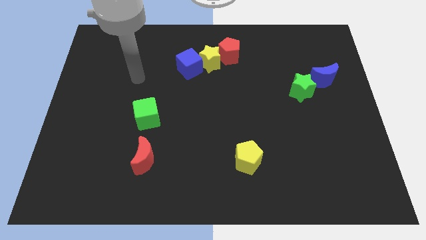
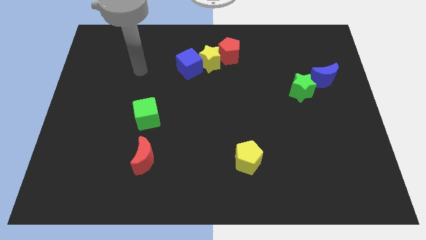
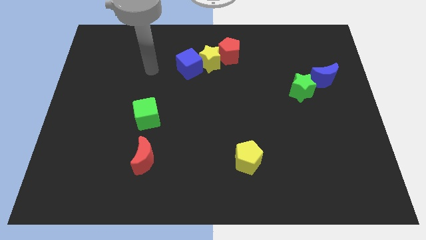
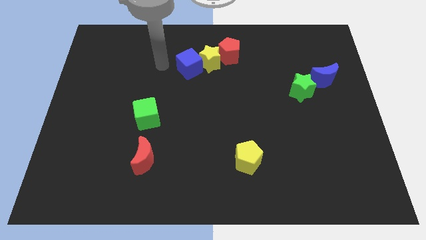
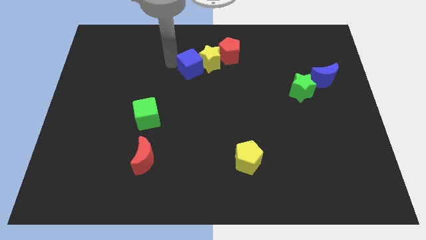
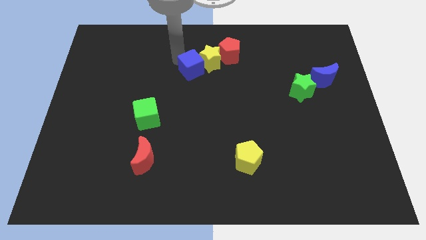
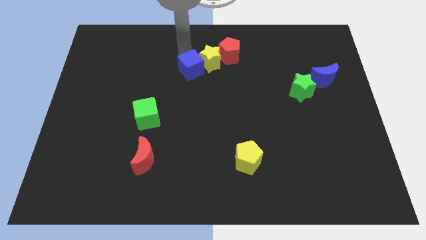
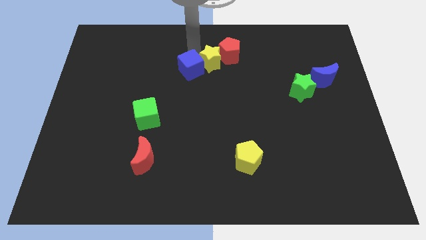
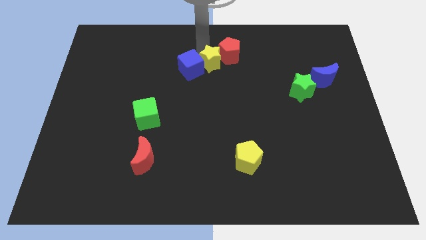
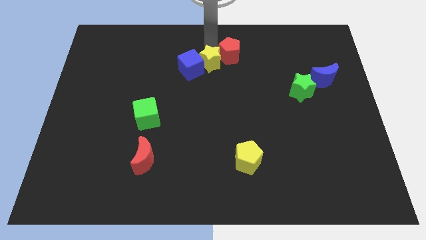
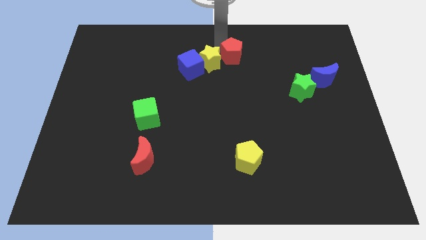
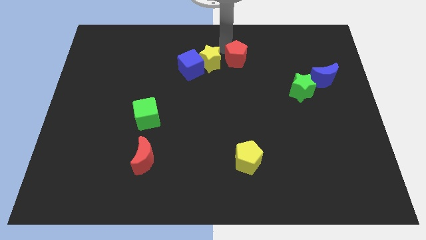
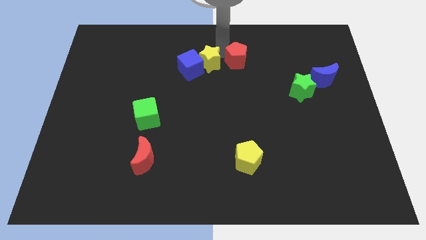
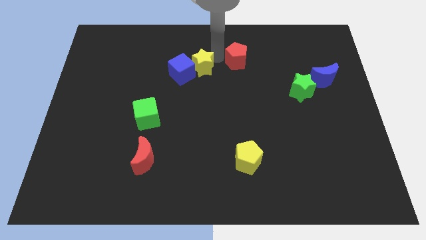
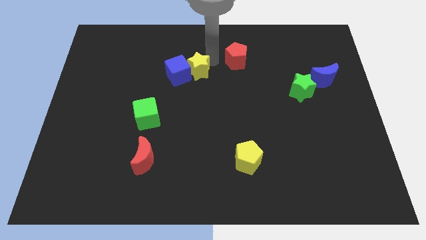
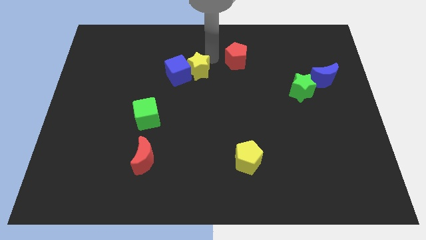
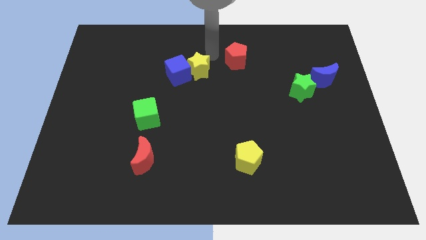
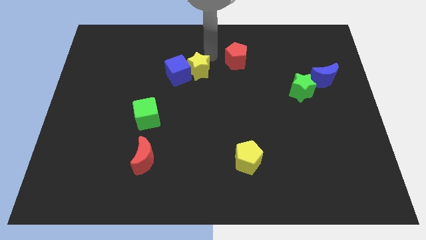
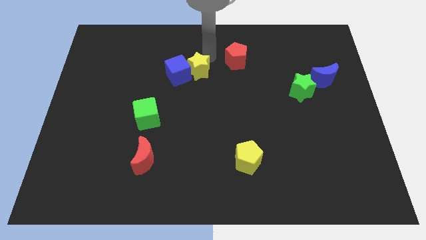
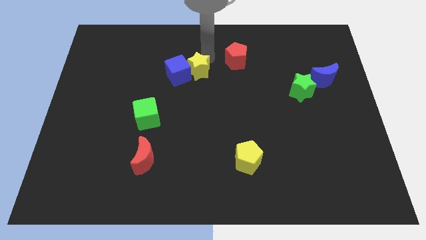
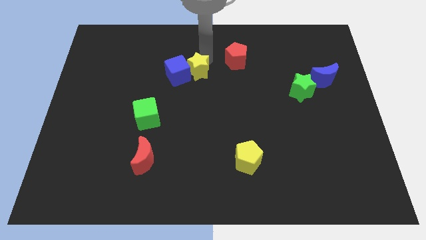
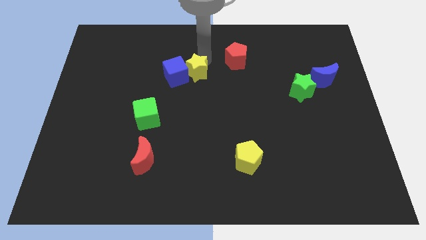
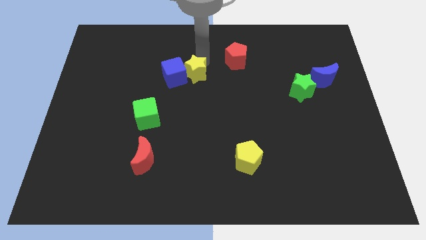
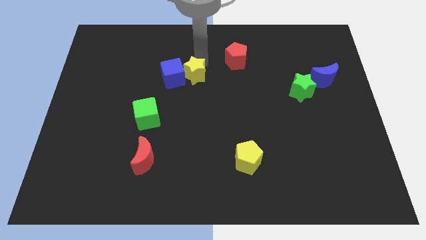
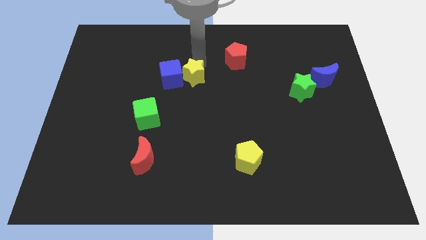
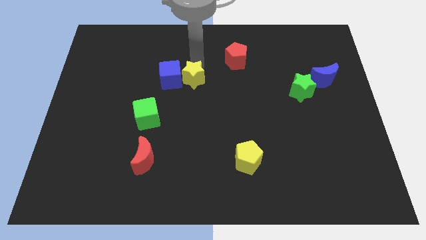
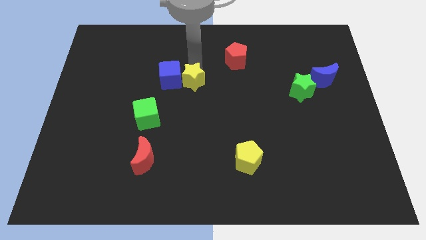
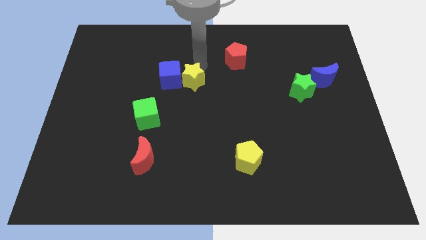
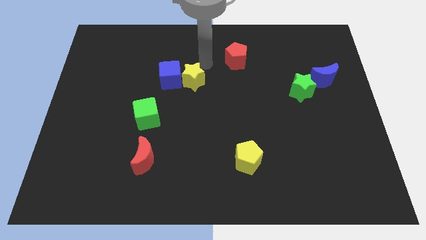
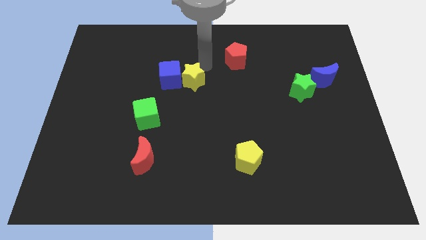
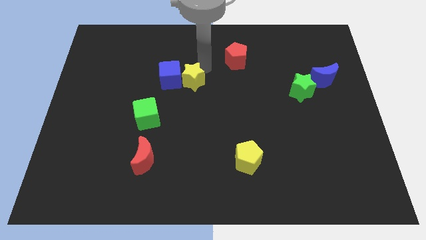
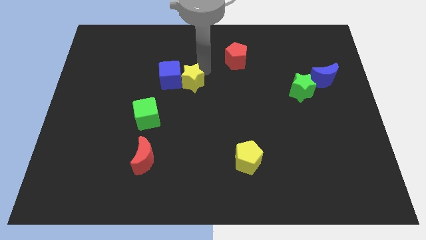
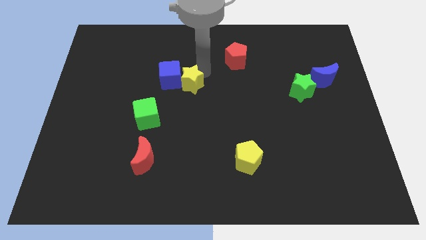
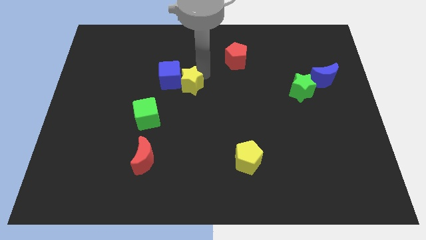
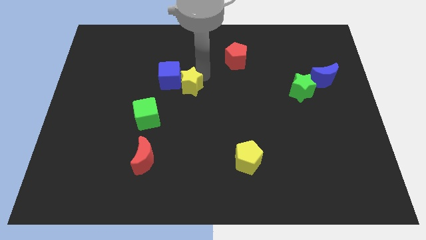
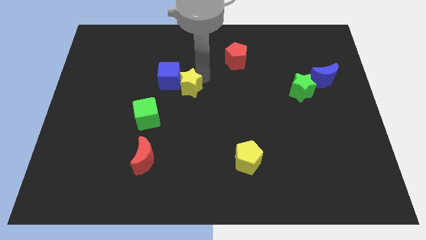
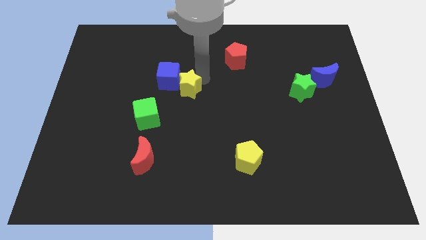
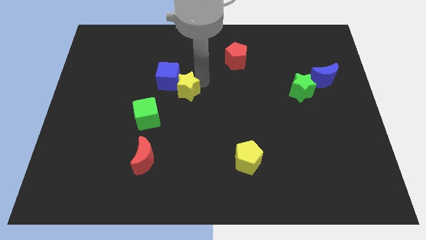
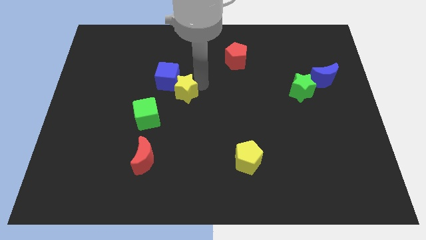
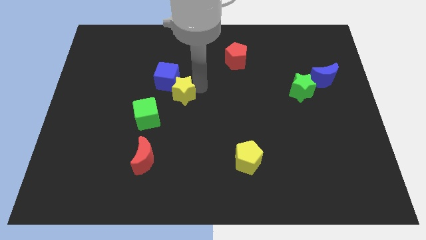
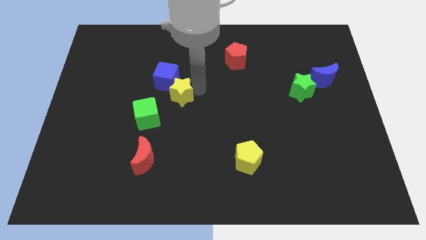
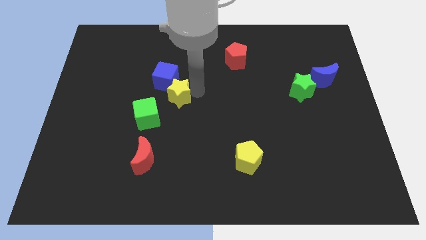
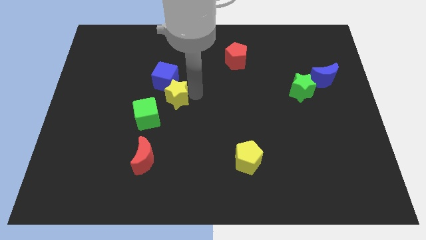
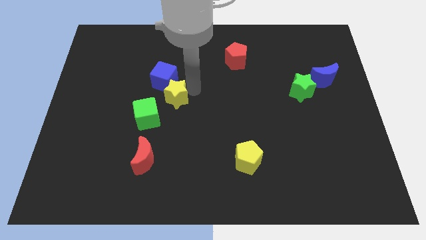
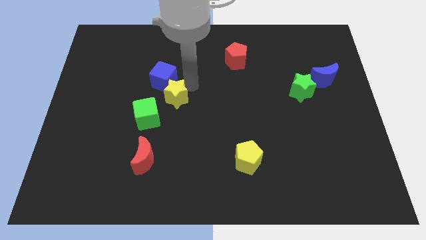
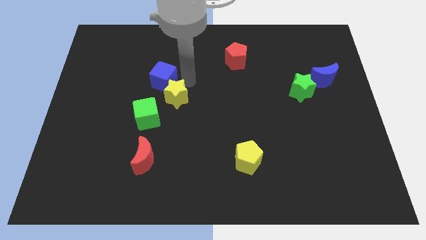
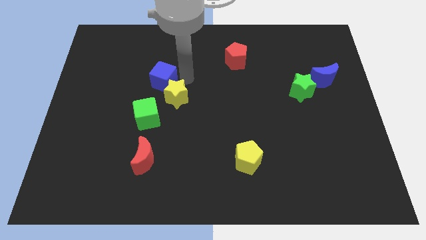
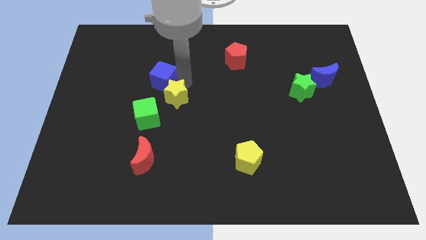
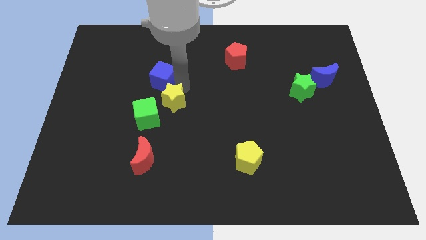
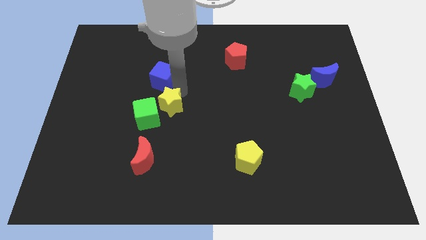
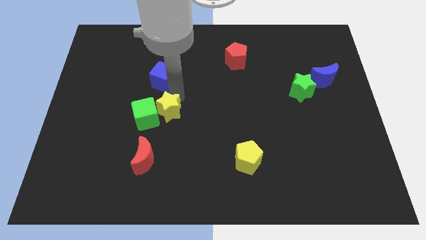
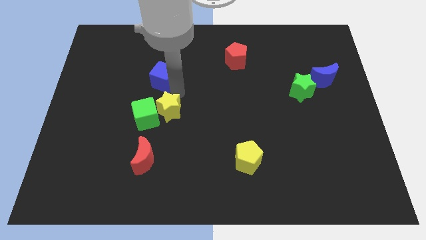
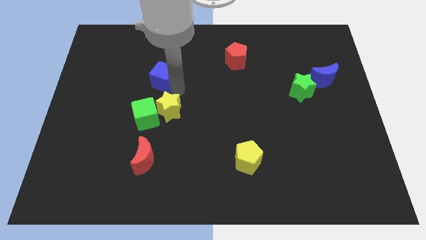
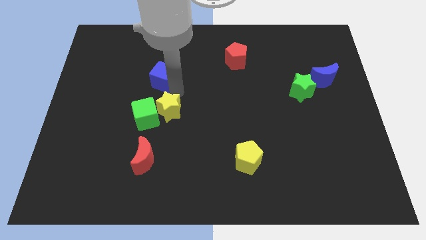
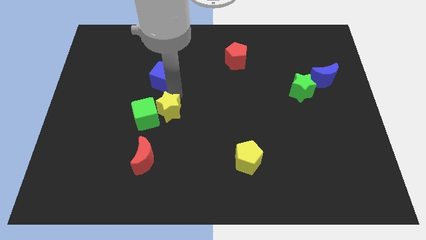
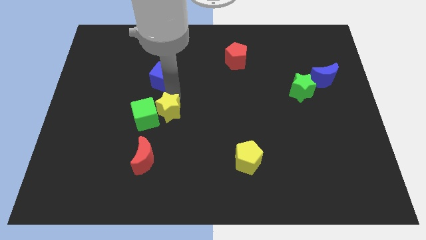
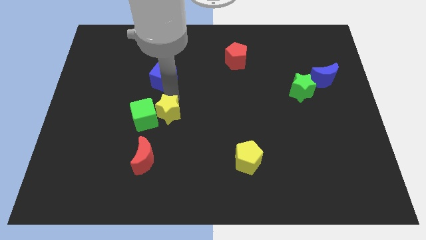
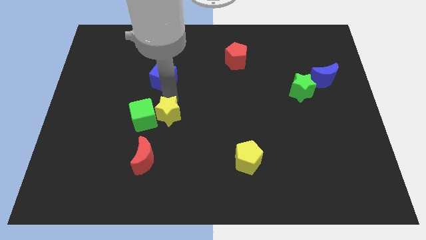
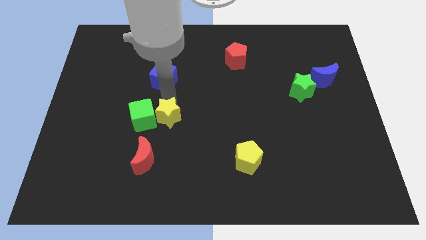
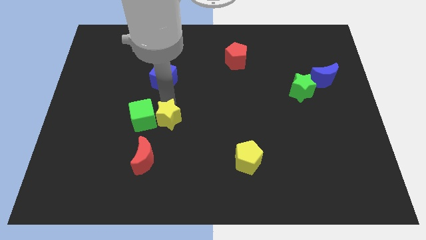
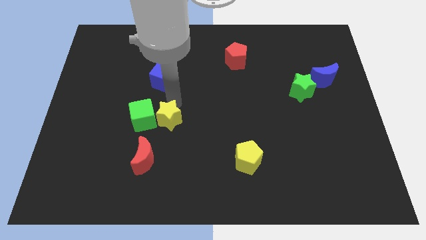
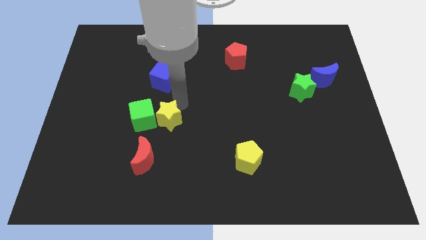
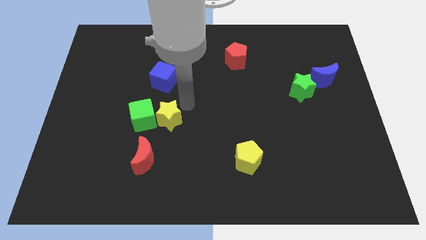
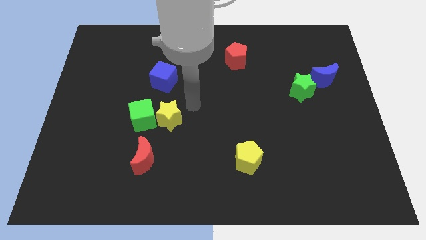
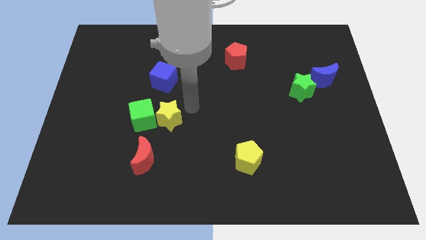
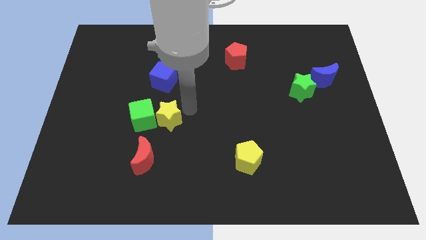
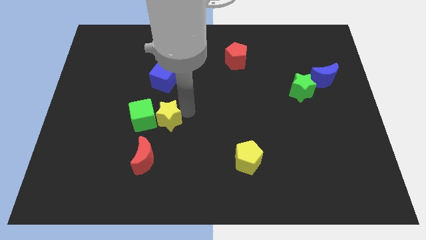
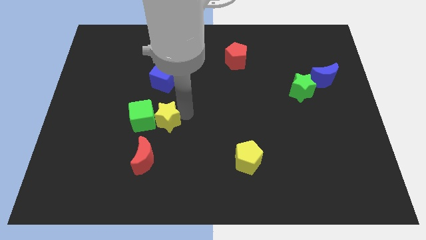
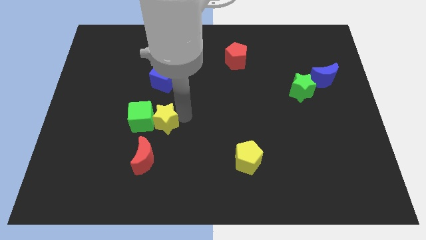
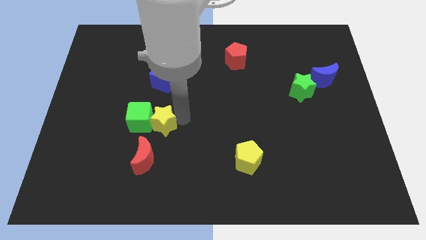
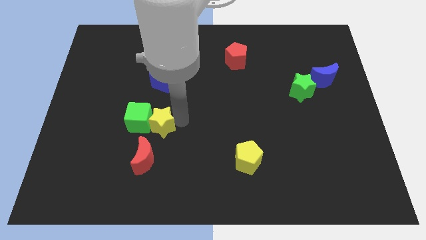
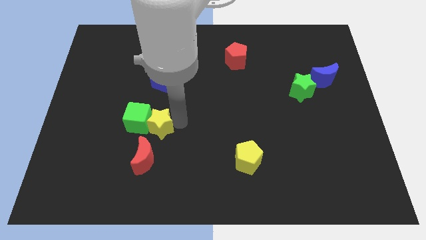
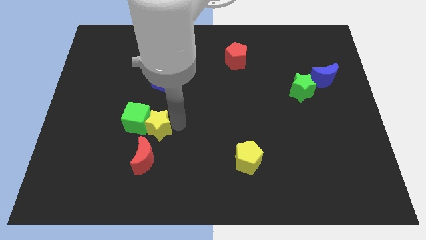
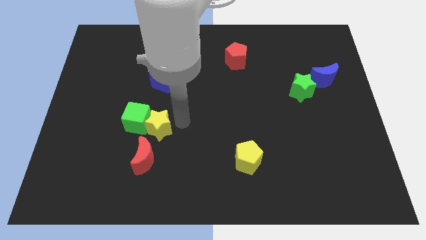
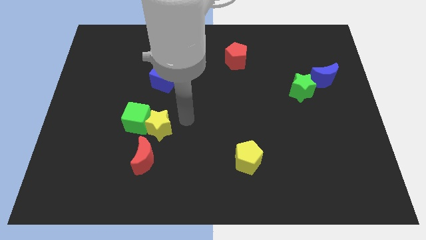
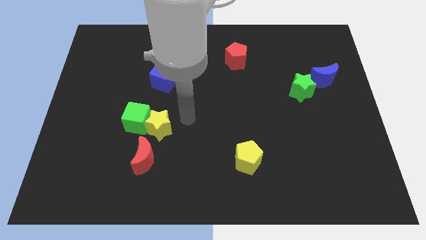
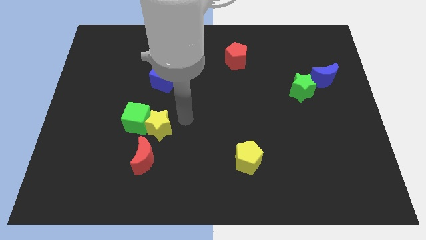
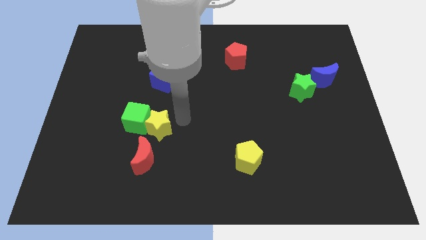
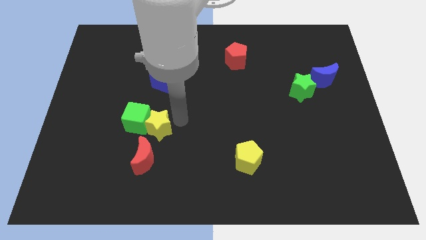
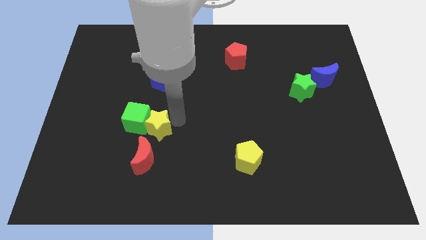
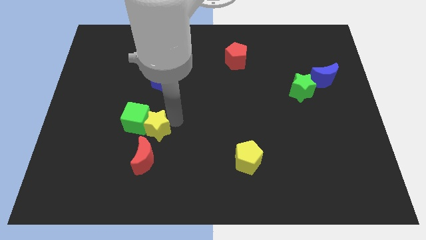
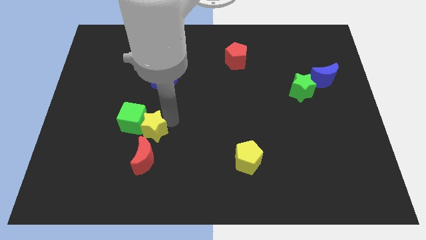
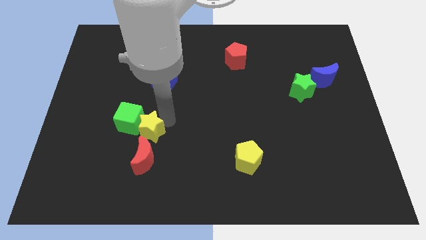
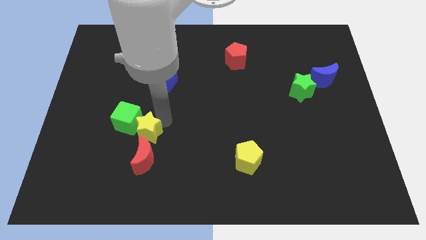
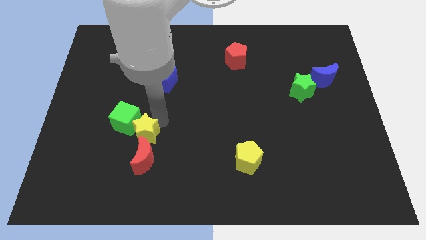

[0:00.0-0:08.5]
push the yellow star to the top left of the red moon
